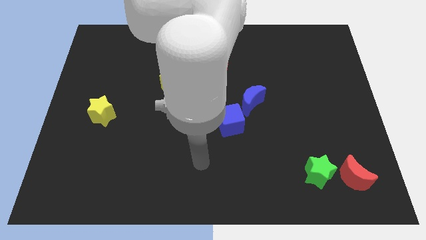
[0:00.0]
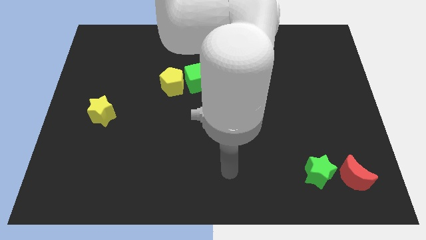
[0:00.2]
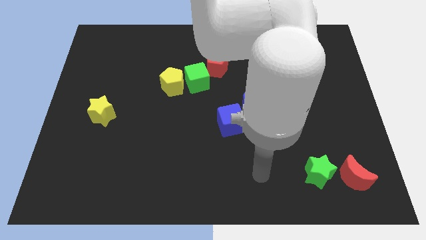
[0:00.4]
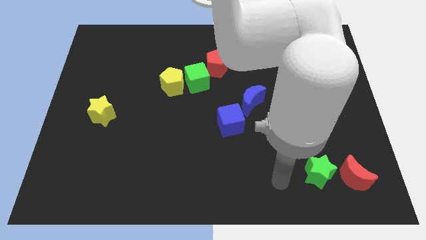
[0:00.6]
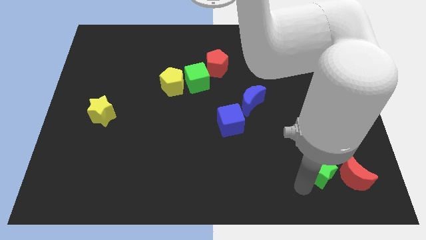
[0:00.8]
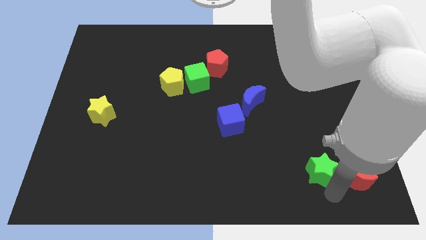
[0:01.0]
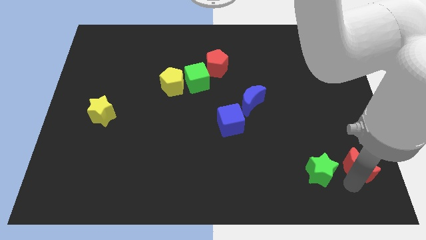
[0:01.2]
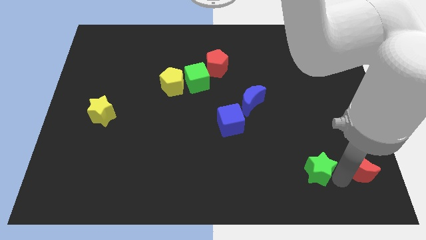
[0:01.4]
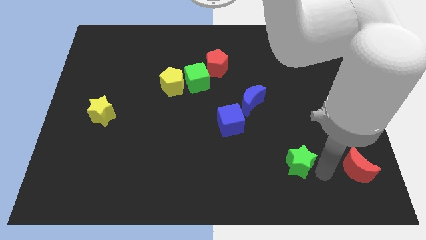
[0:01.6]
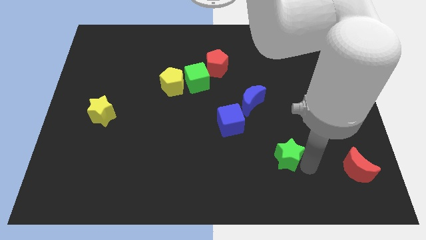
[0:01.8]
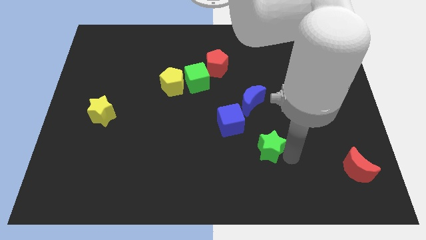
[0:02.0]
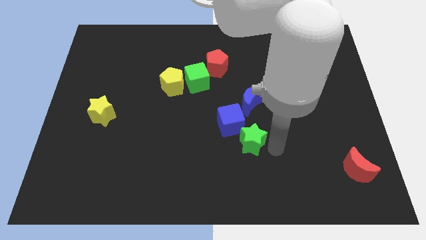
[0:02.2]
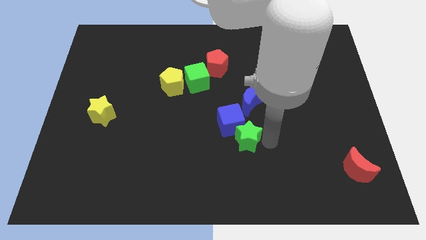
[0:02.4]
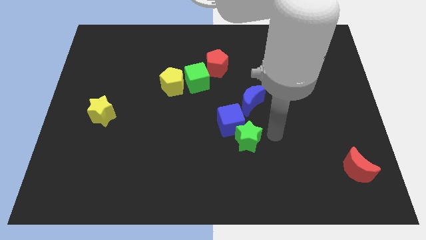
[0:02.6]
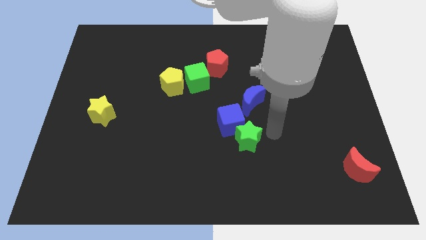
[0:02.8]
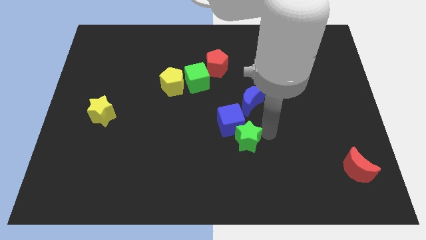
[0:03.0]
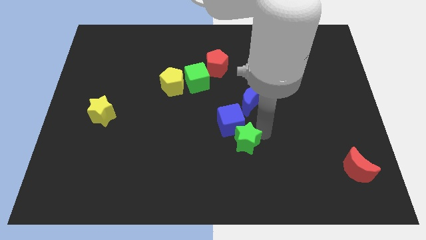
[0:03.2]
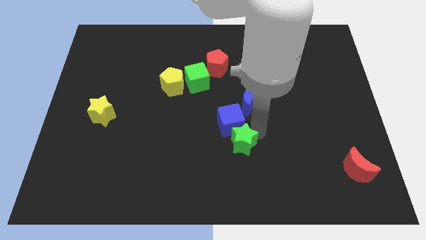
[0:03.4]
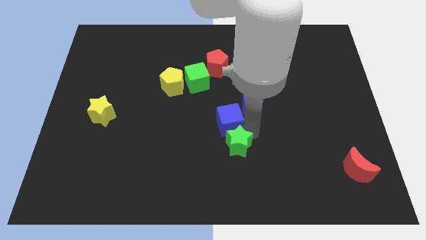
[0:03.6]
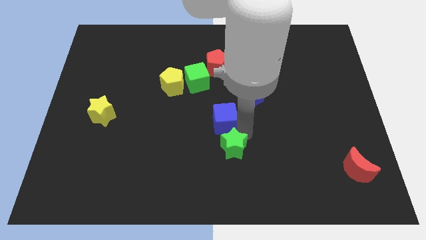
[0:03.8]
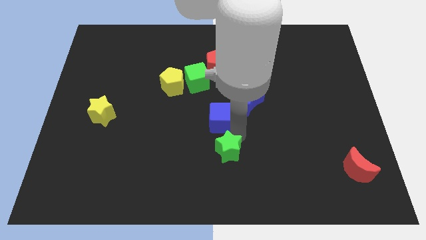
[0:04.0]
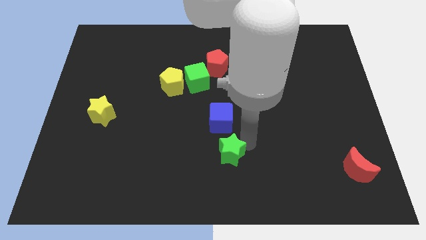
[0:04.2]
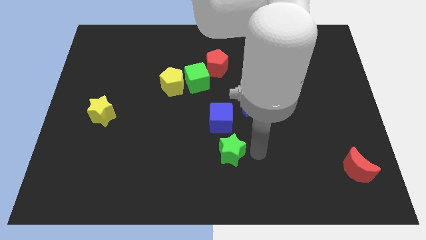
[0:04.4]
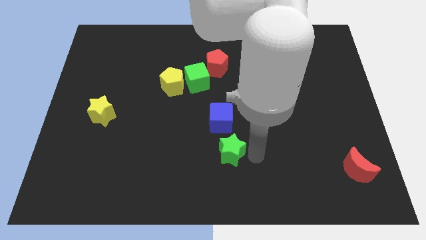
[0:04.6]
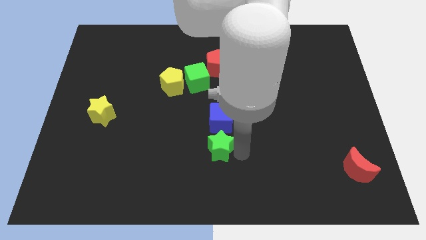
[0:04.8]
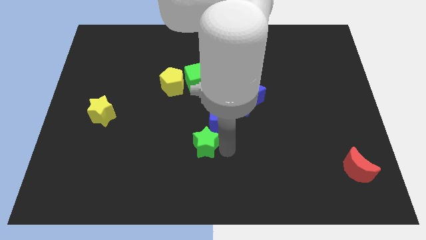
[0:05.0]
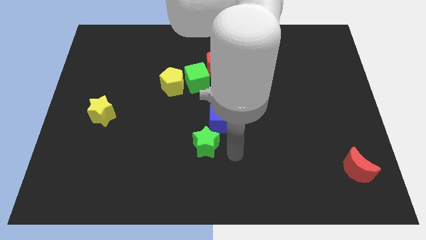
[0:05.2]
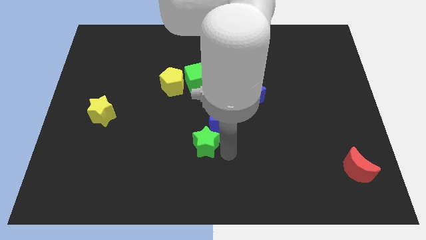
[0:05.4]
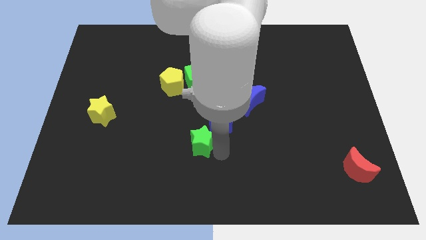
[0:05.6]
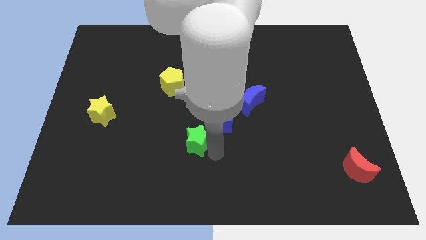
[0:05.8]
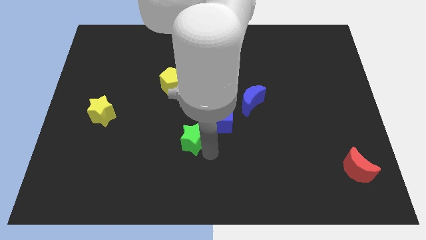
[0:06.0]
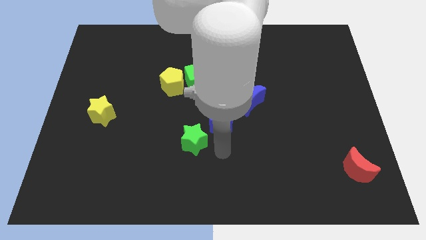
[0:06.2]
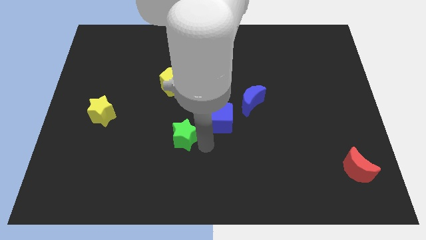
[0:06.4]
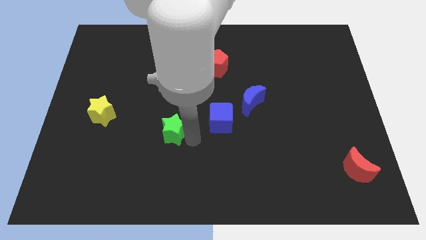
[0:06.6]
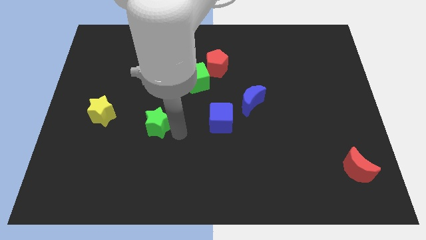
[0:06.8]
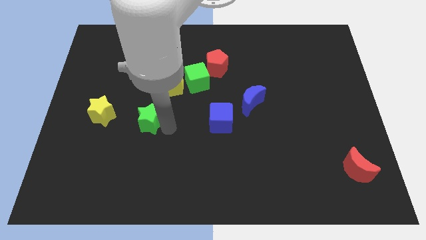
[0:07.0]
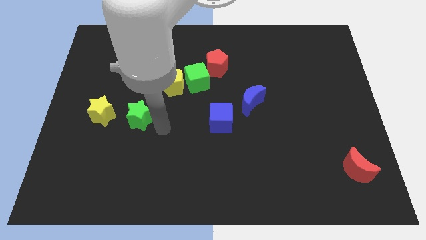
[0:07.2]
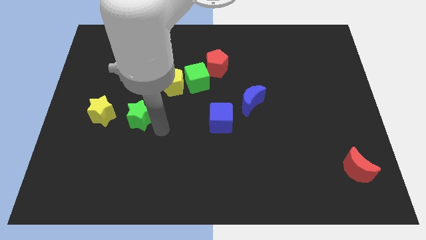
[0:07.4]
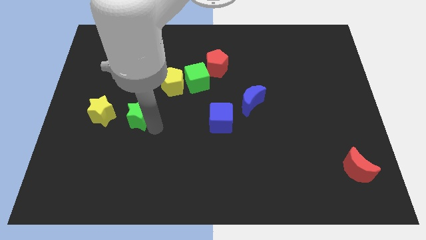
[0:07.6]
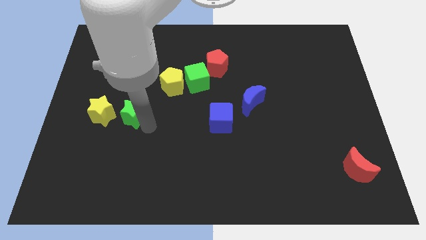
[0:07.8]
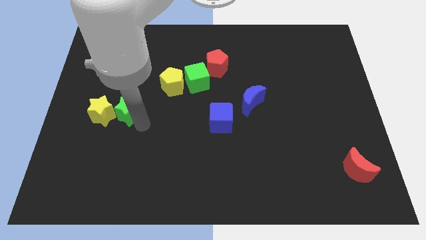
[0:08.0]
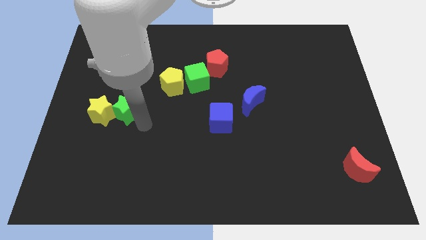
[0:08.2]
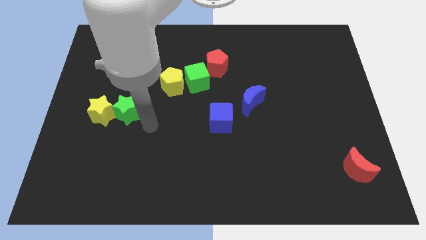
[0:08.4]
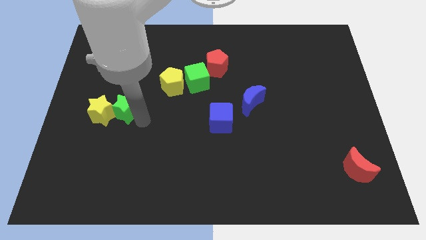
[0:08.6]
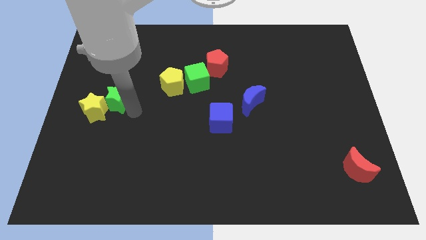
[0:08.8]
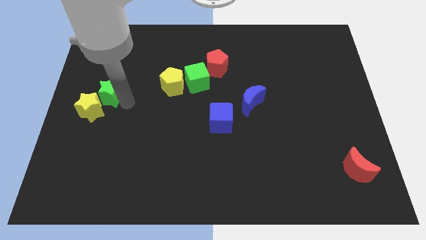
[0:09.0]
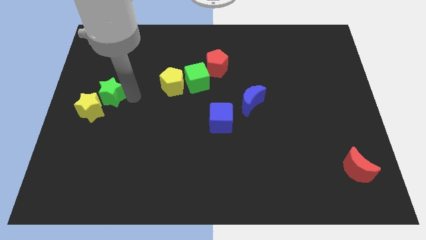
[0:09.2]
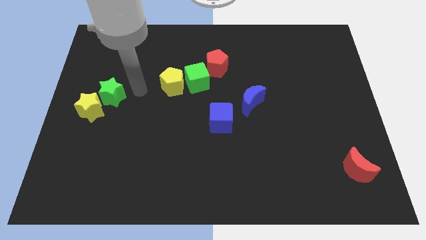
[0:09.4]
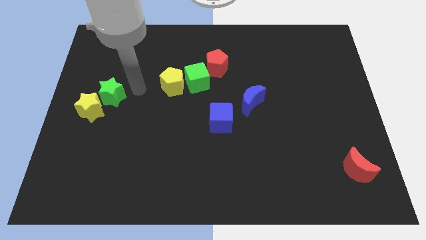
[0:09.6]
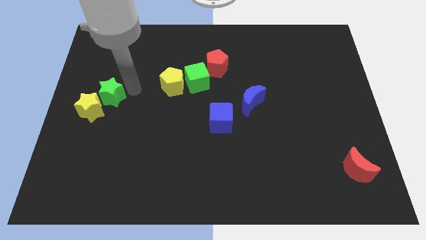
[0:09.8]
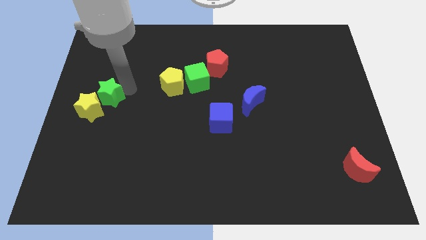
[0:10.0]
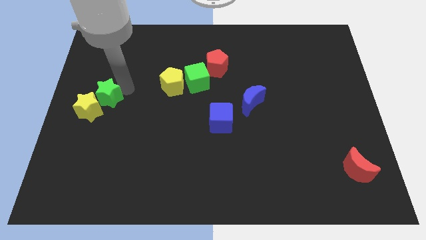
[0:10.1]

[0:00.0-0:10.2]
move the green star to the left side
